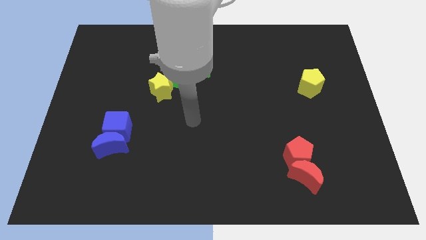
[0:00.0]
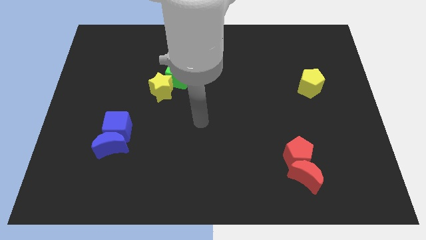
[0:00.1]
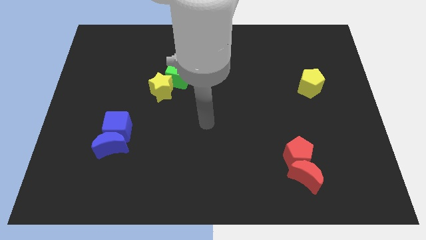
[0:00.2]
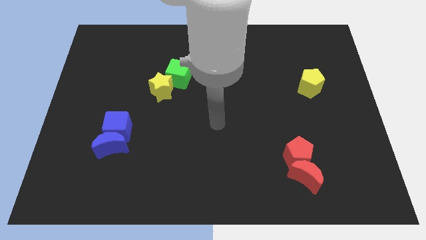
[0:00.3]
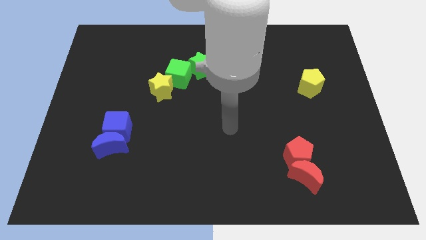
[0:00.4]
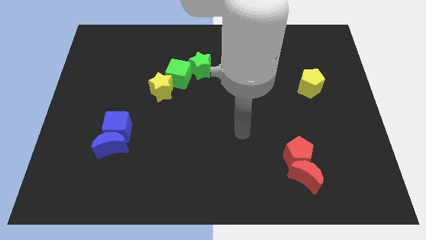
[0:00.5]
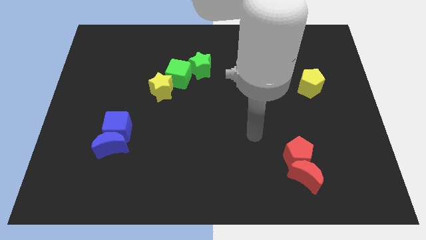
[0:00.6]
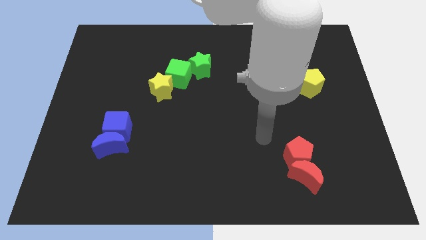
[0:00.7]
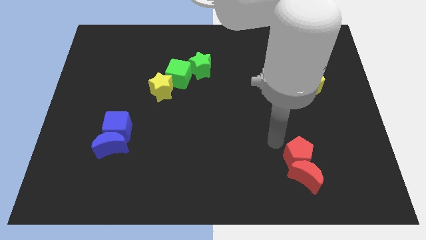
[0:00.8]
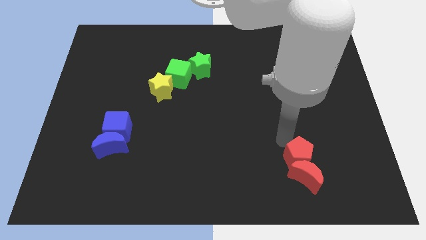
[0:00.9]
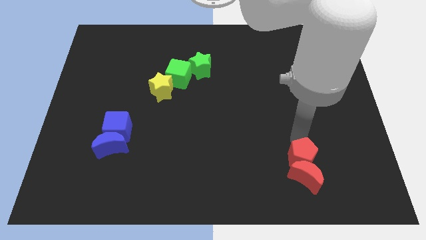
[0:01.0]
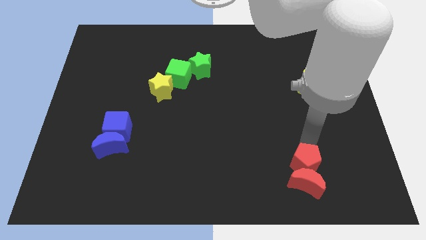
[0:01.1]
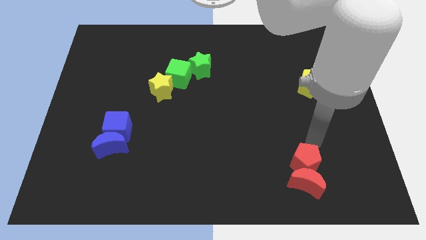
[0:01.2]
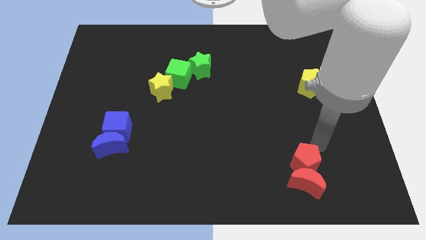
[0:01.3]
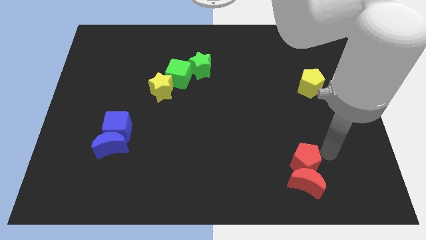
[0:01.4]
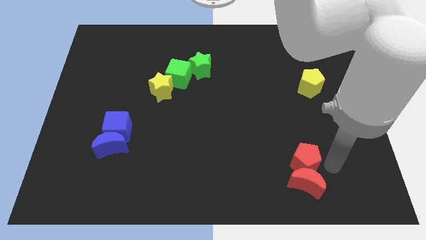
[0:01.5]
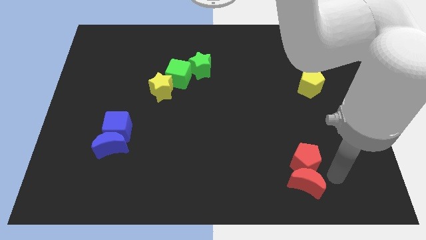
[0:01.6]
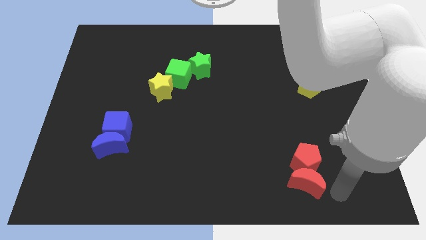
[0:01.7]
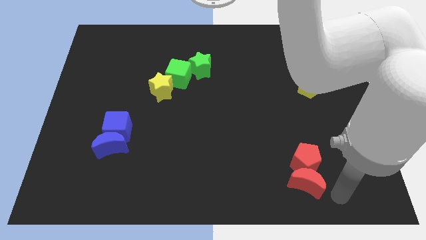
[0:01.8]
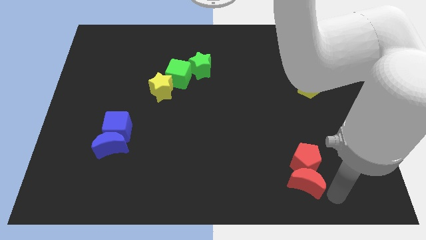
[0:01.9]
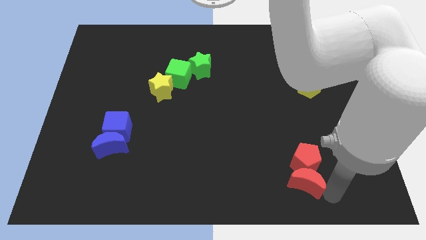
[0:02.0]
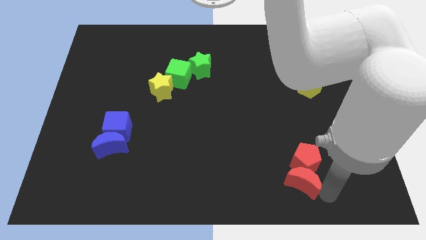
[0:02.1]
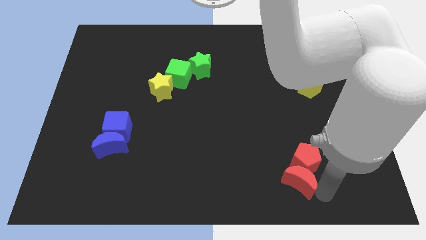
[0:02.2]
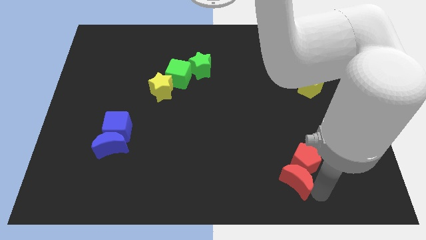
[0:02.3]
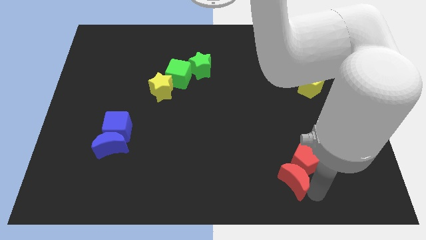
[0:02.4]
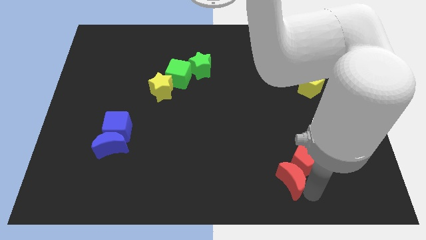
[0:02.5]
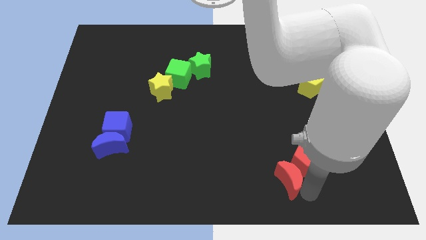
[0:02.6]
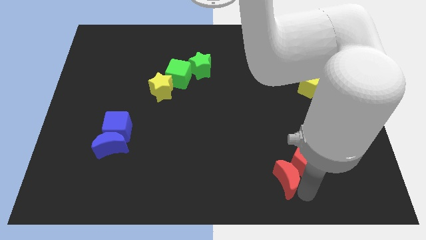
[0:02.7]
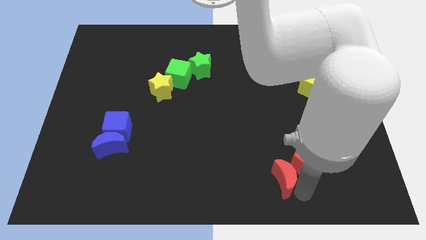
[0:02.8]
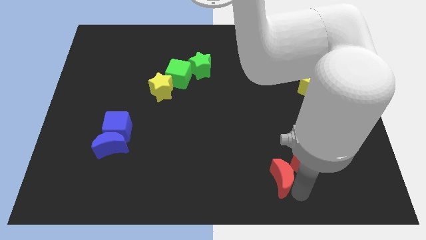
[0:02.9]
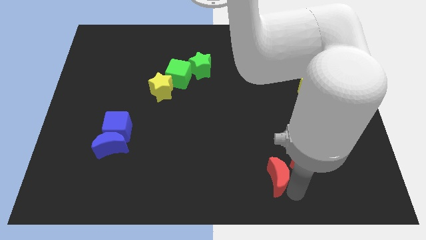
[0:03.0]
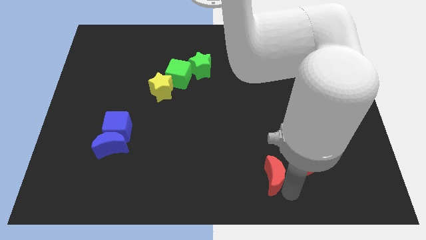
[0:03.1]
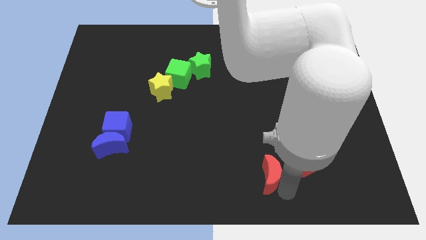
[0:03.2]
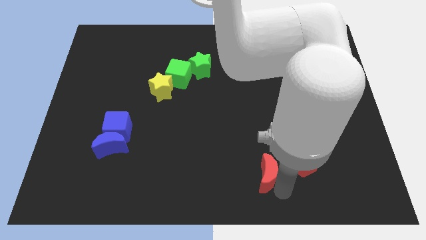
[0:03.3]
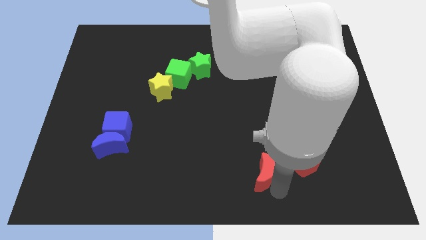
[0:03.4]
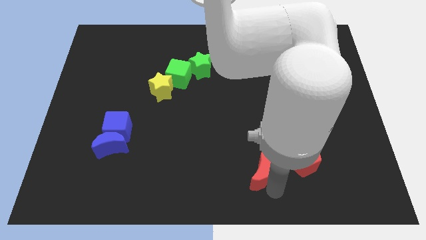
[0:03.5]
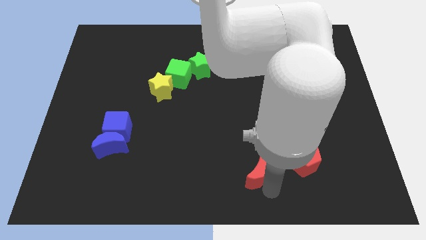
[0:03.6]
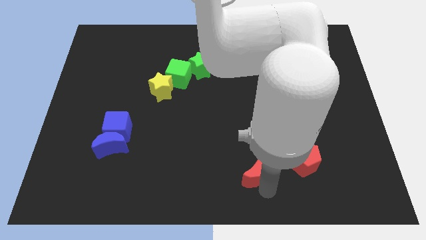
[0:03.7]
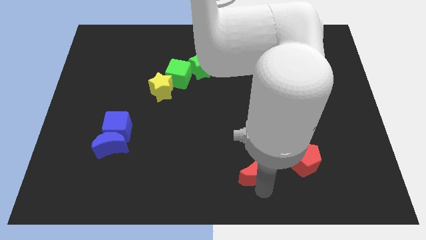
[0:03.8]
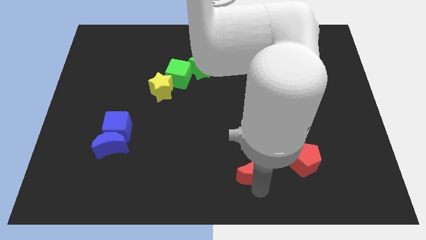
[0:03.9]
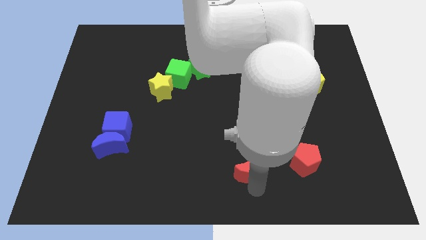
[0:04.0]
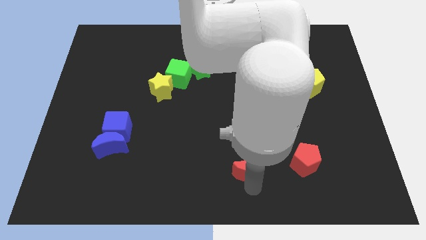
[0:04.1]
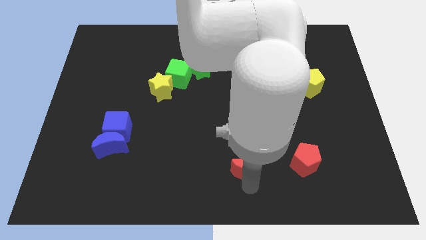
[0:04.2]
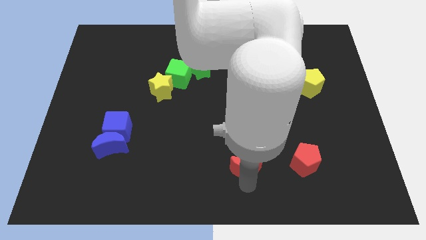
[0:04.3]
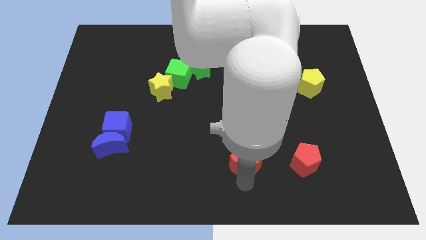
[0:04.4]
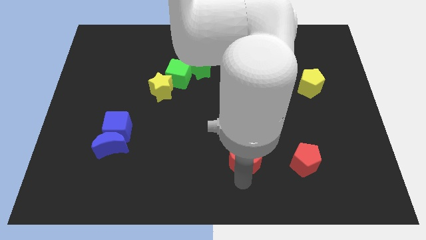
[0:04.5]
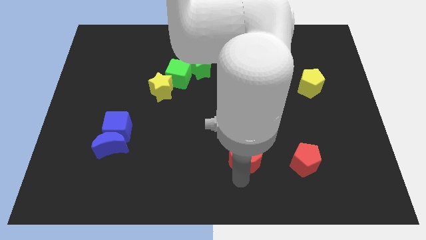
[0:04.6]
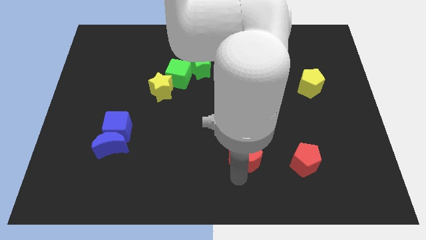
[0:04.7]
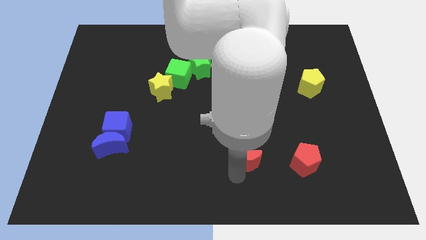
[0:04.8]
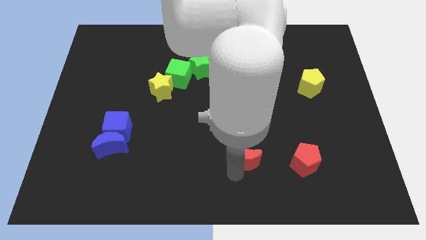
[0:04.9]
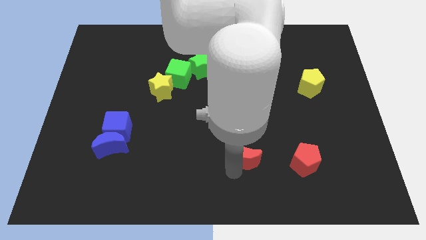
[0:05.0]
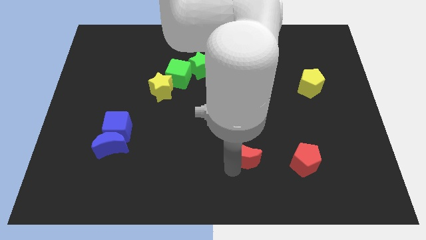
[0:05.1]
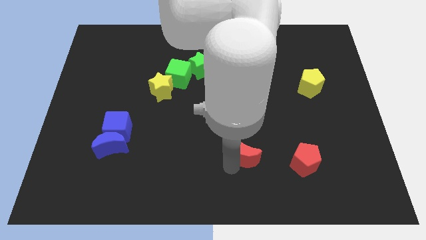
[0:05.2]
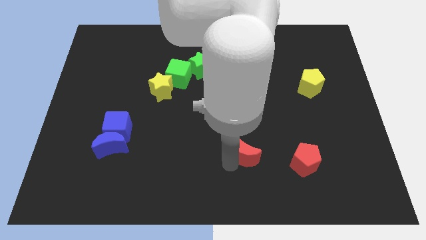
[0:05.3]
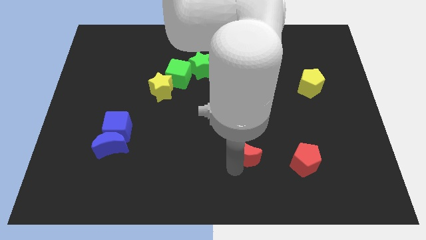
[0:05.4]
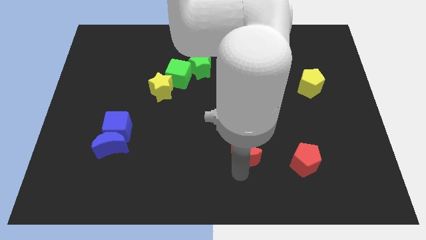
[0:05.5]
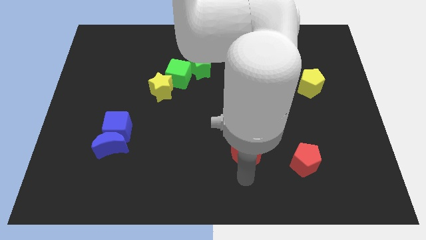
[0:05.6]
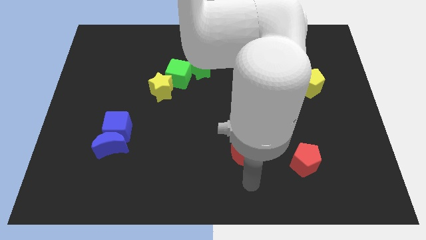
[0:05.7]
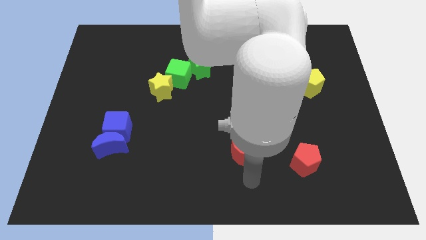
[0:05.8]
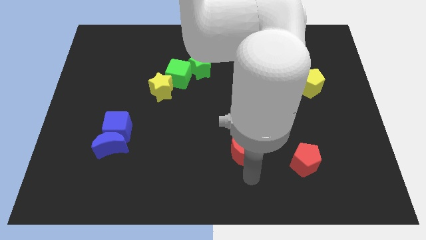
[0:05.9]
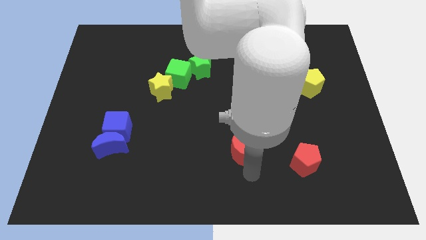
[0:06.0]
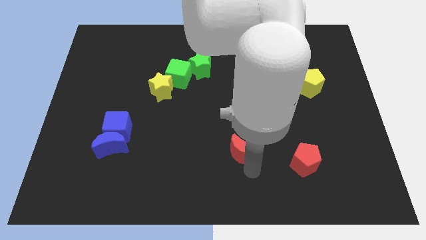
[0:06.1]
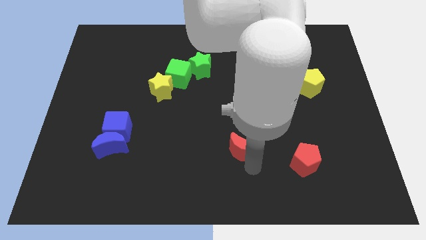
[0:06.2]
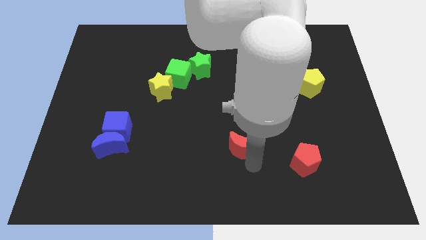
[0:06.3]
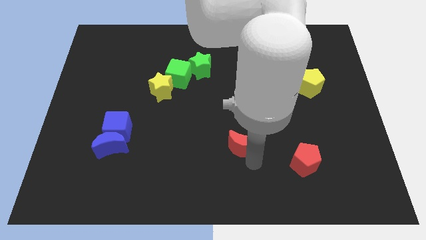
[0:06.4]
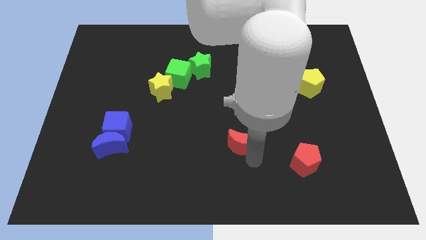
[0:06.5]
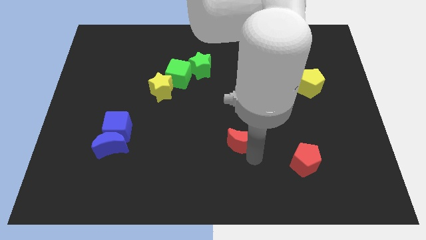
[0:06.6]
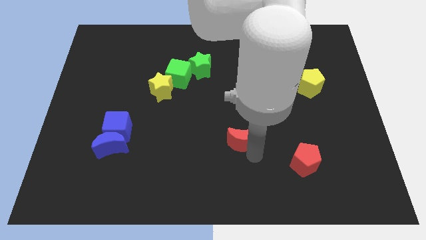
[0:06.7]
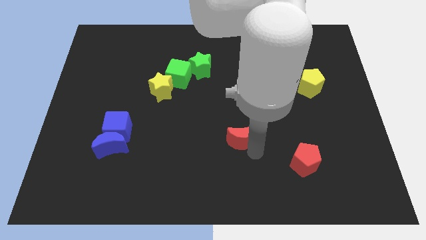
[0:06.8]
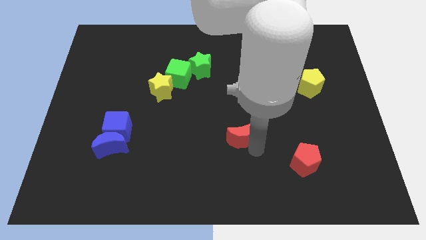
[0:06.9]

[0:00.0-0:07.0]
put the red moon to the middle
